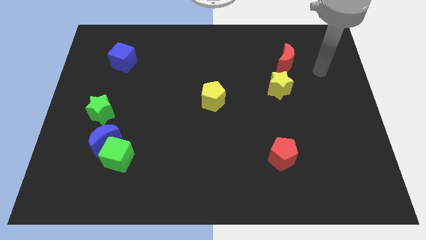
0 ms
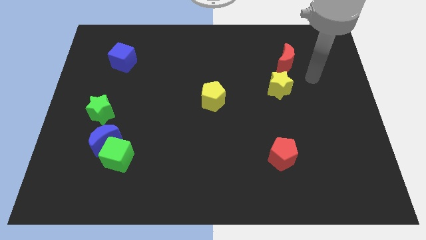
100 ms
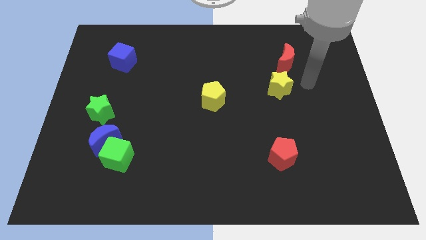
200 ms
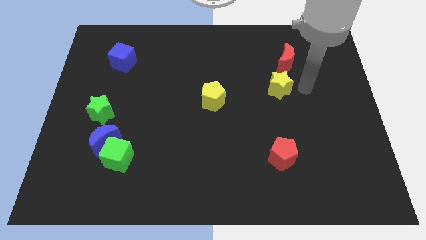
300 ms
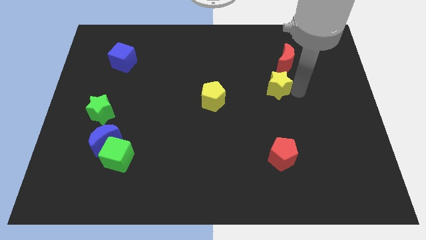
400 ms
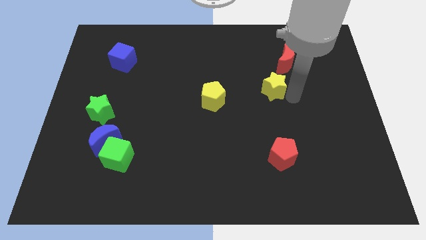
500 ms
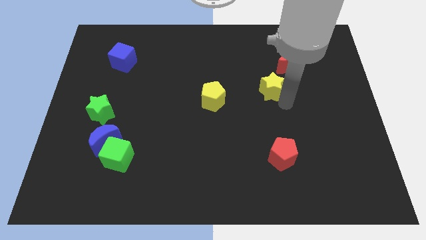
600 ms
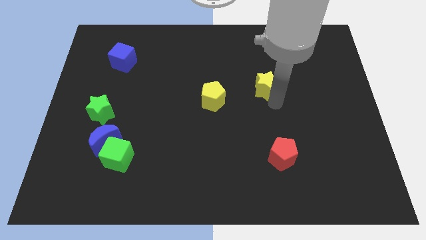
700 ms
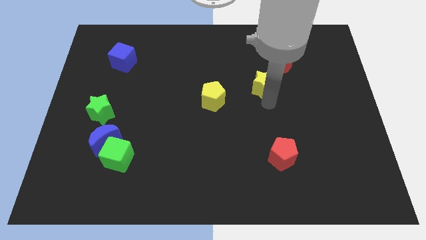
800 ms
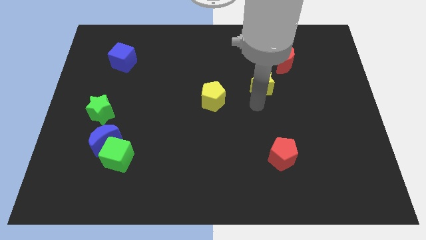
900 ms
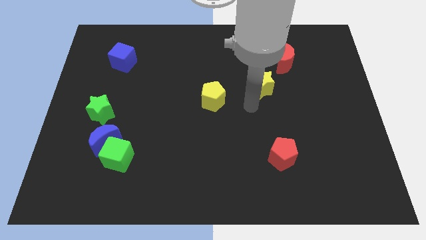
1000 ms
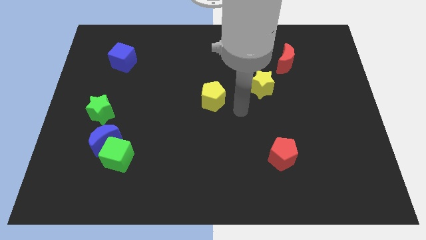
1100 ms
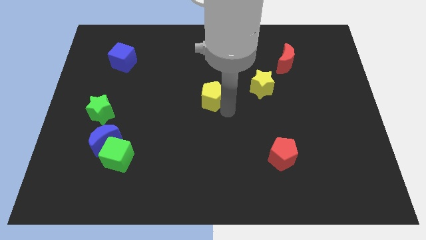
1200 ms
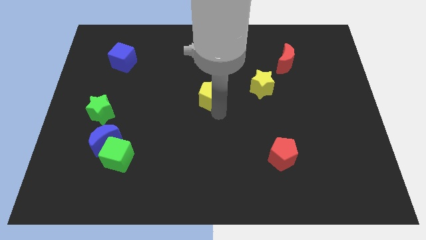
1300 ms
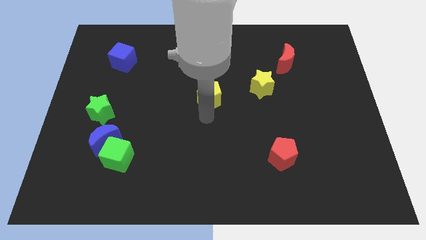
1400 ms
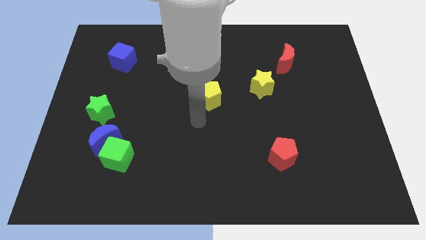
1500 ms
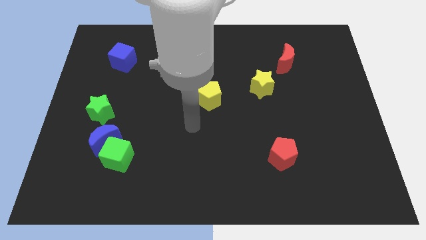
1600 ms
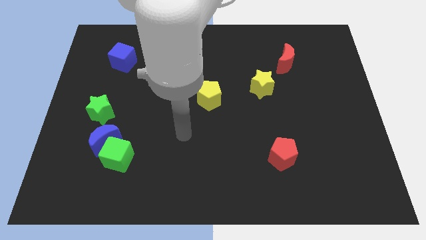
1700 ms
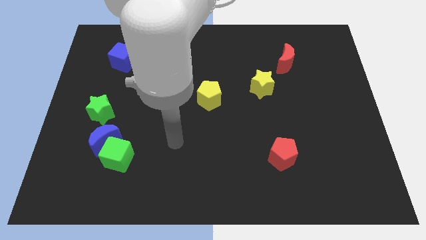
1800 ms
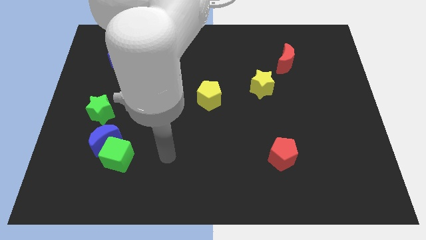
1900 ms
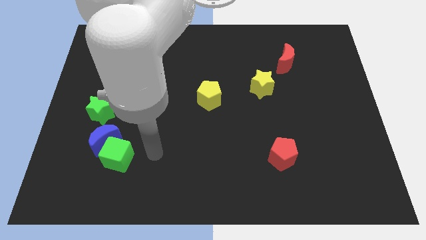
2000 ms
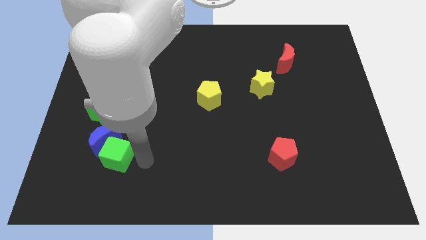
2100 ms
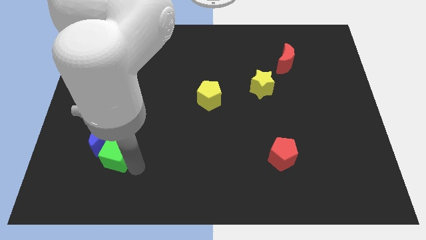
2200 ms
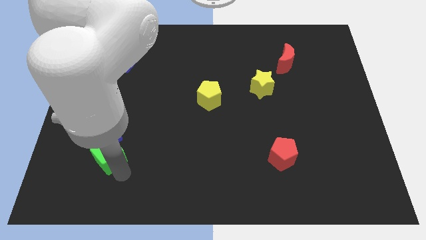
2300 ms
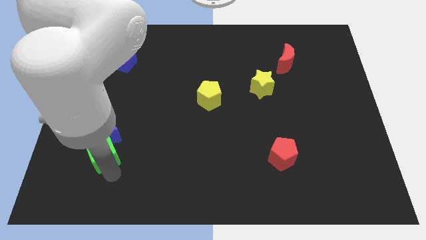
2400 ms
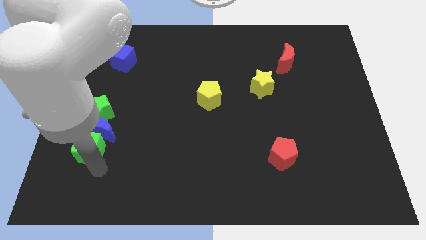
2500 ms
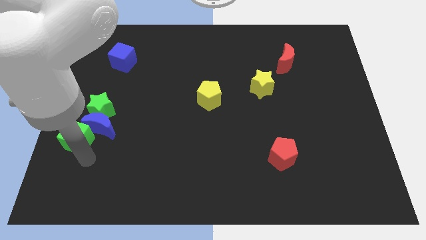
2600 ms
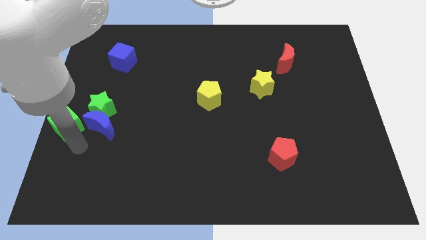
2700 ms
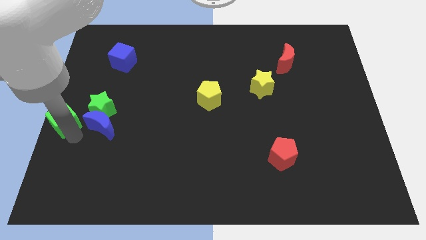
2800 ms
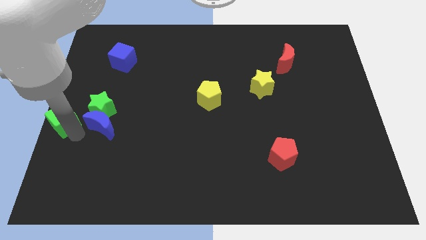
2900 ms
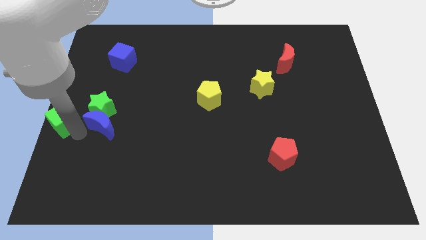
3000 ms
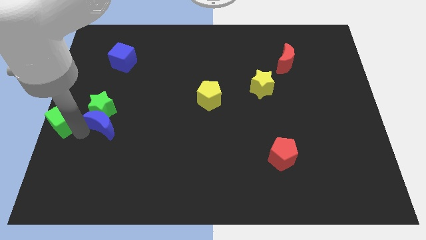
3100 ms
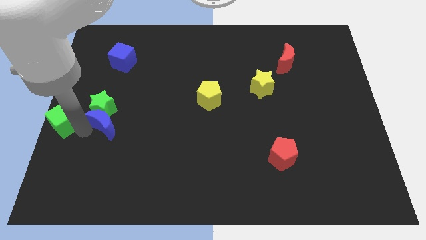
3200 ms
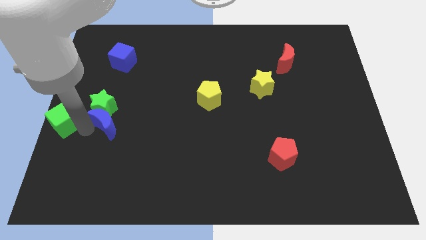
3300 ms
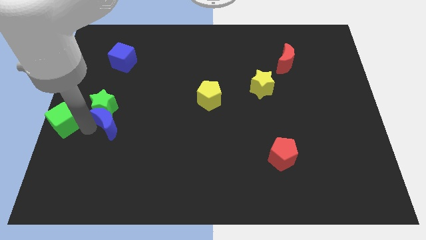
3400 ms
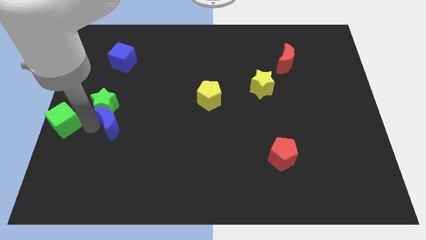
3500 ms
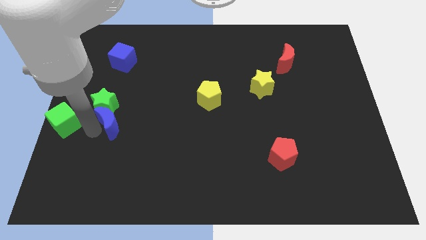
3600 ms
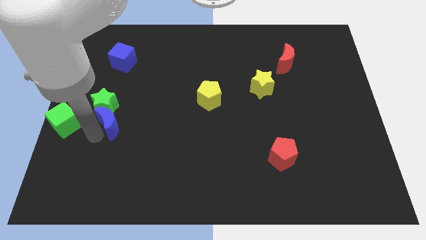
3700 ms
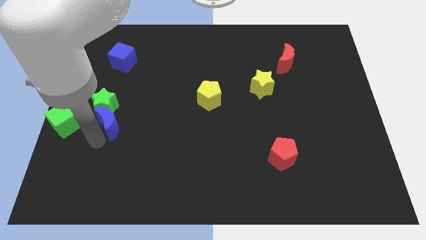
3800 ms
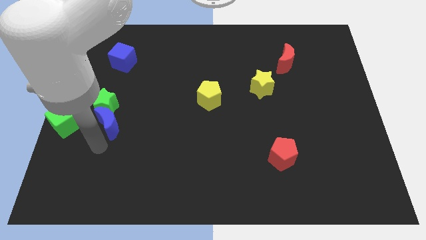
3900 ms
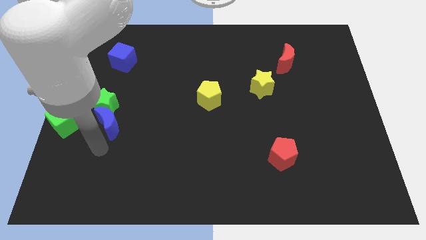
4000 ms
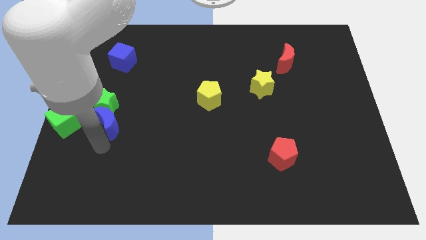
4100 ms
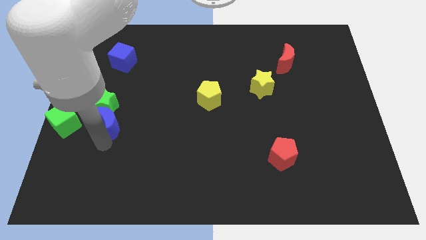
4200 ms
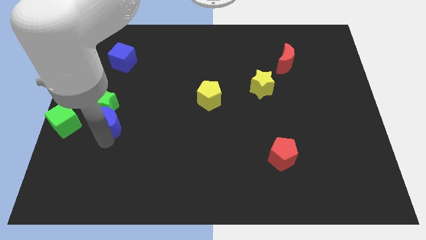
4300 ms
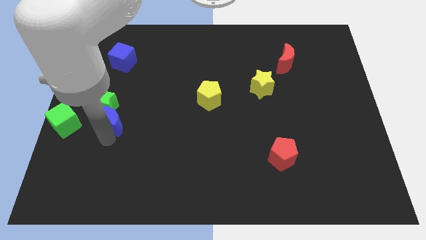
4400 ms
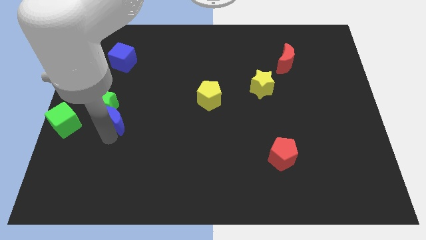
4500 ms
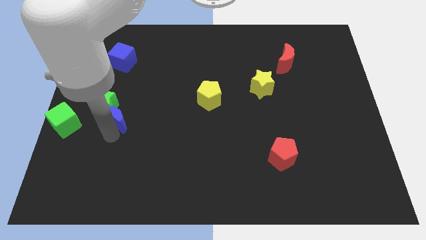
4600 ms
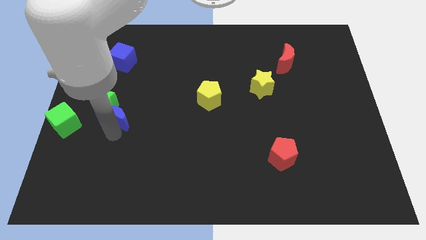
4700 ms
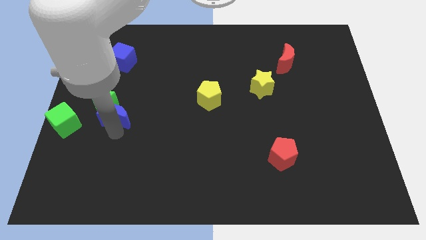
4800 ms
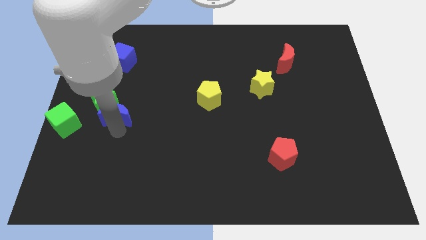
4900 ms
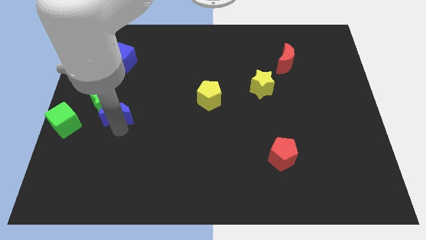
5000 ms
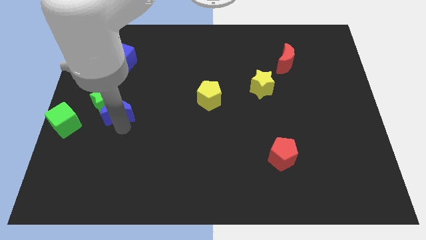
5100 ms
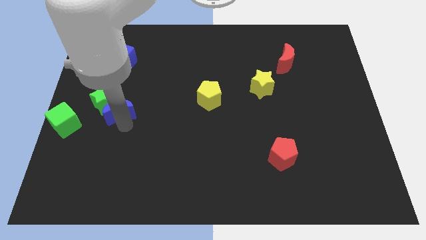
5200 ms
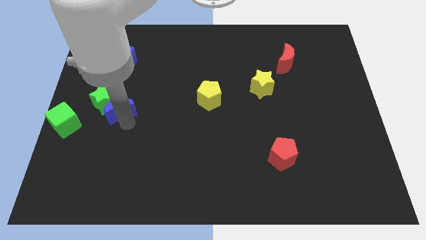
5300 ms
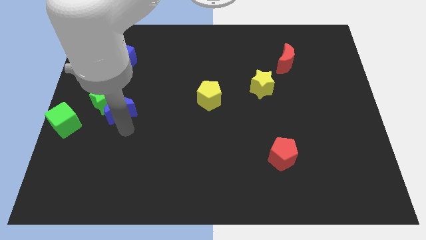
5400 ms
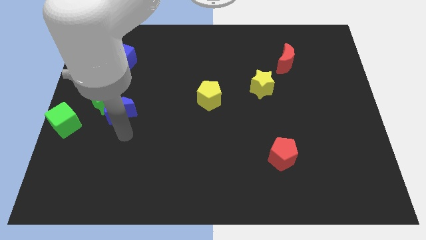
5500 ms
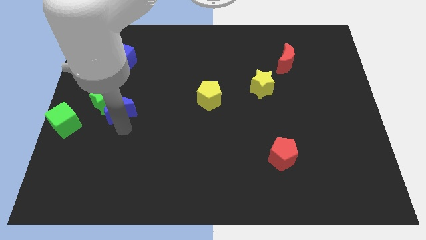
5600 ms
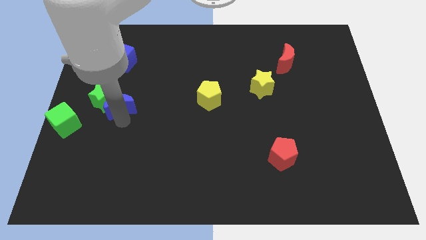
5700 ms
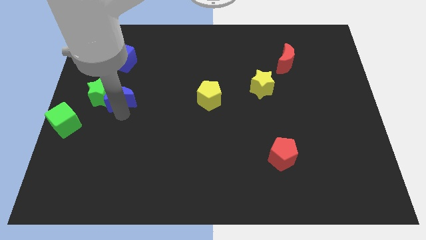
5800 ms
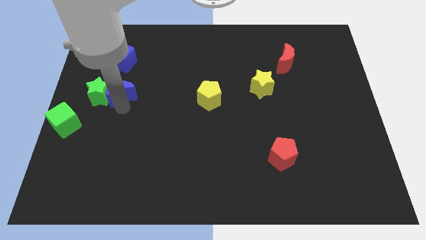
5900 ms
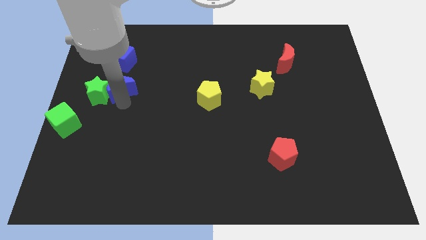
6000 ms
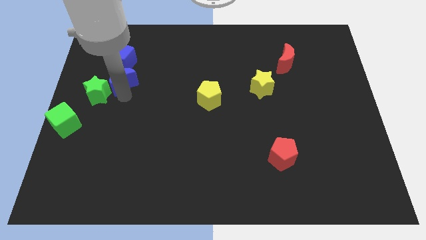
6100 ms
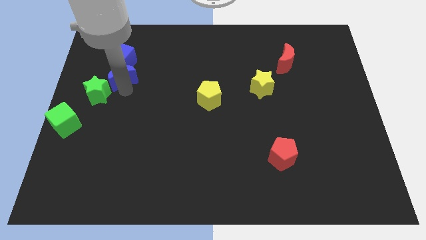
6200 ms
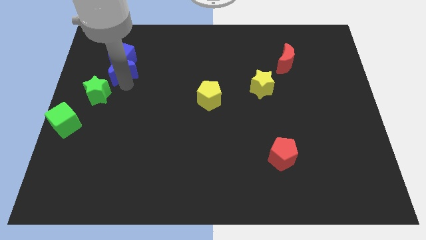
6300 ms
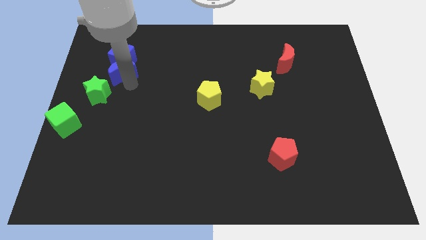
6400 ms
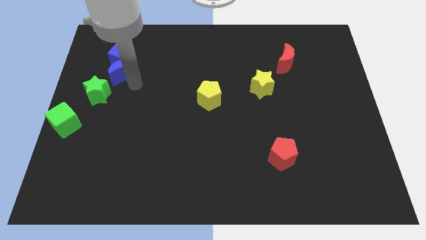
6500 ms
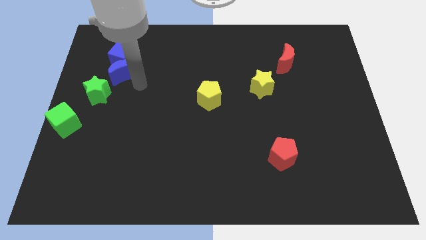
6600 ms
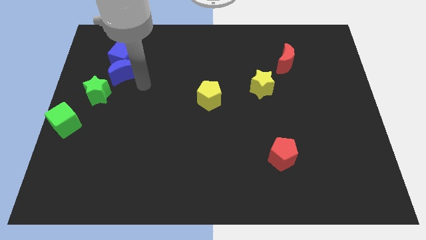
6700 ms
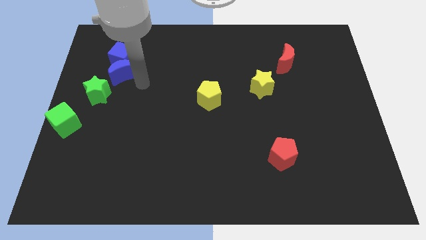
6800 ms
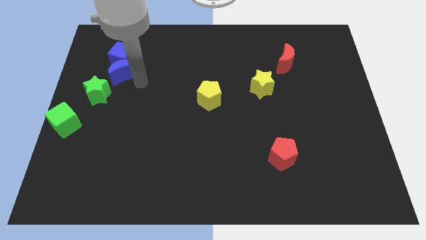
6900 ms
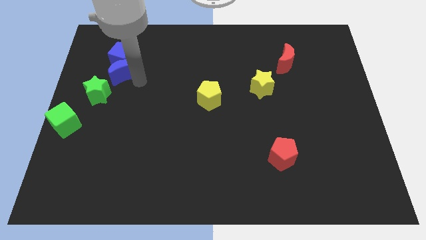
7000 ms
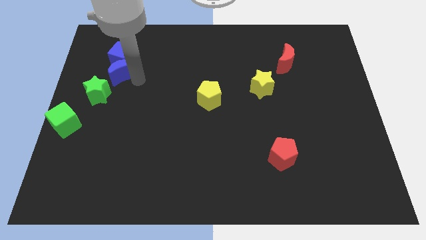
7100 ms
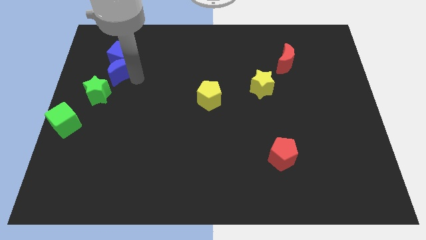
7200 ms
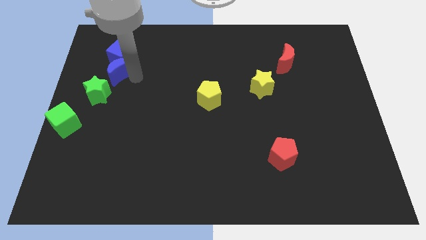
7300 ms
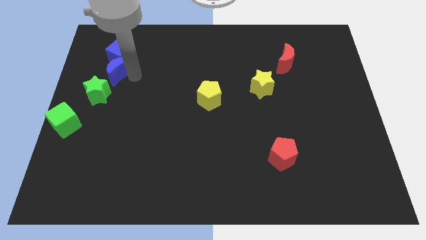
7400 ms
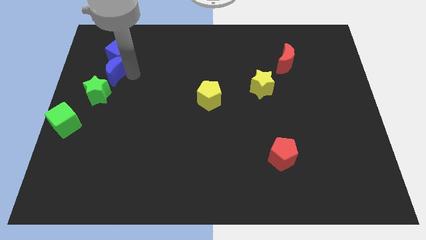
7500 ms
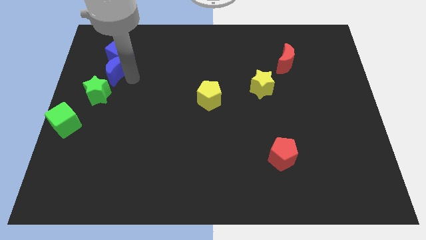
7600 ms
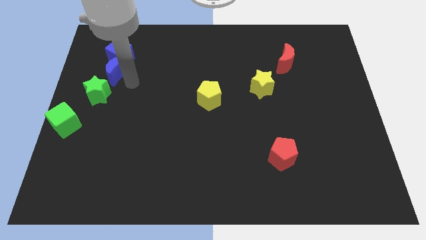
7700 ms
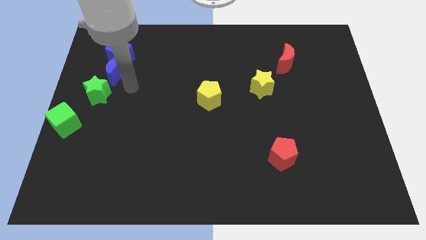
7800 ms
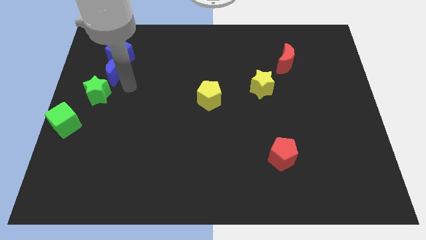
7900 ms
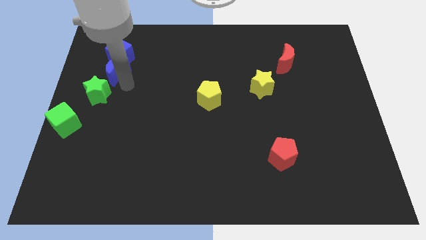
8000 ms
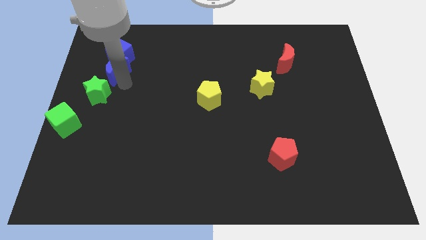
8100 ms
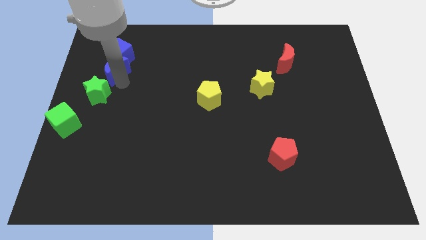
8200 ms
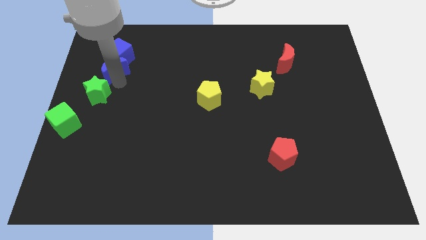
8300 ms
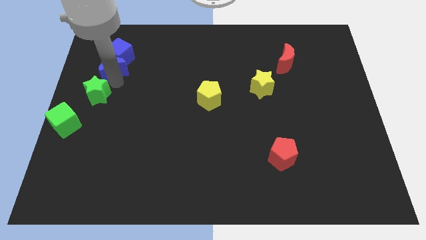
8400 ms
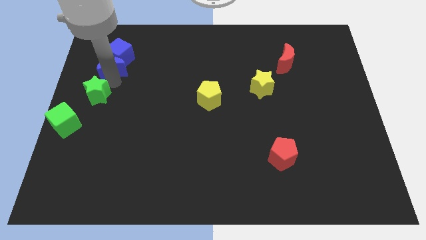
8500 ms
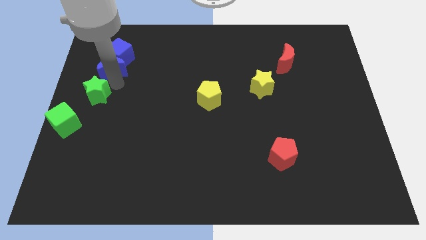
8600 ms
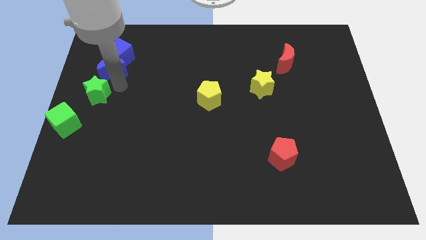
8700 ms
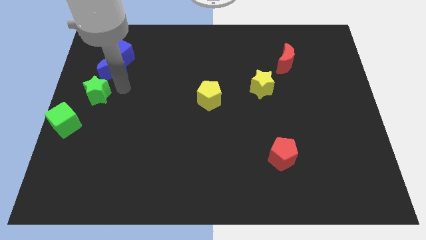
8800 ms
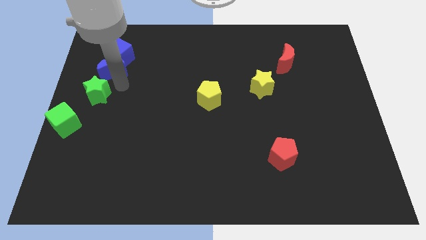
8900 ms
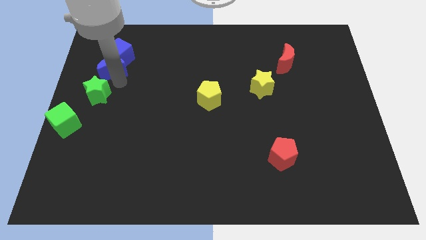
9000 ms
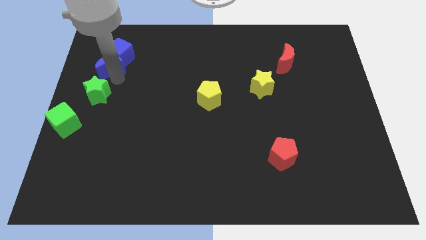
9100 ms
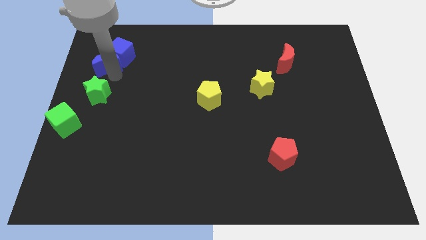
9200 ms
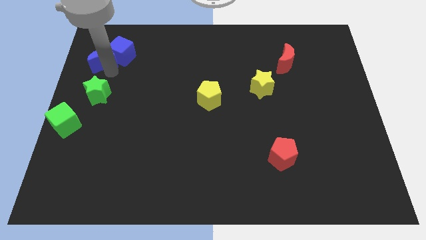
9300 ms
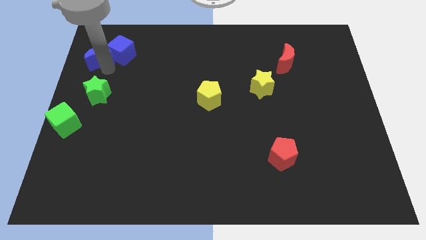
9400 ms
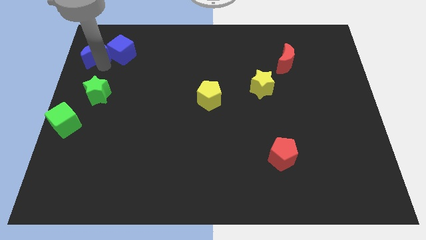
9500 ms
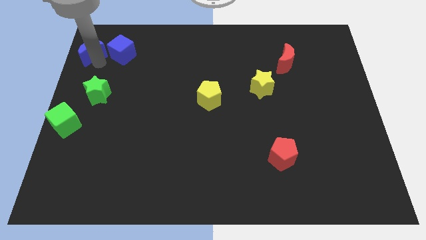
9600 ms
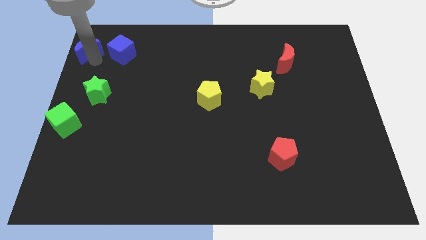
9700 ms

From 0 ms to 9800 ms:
slide the blue moon to the top left of the board
